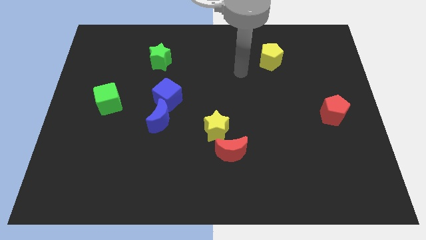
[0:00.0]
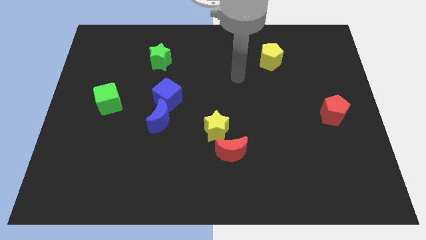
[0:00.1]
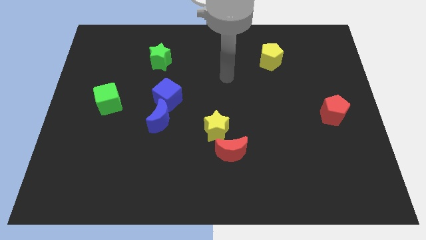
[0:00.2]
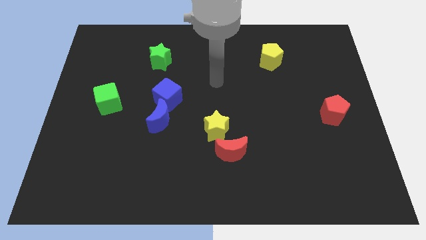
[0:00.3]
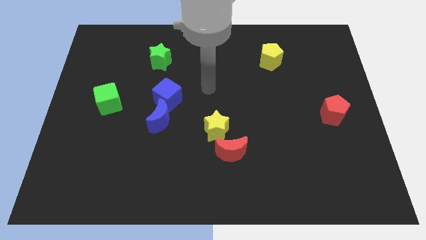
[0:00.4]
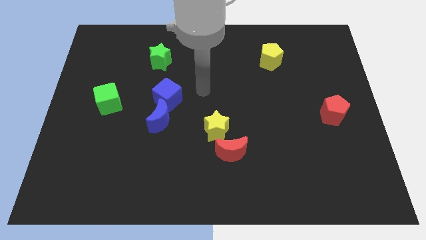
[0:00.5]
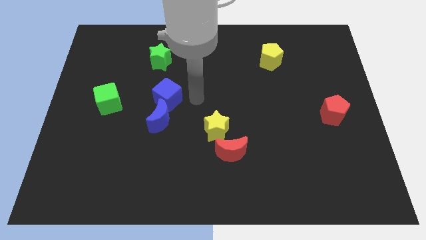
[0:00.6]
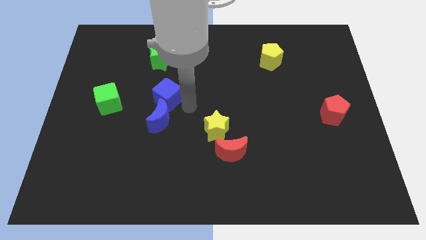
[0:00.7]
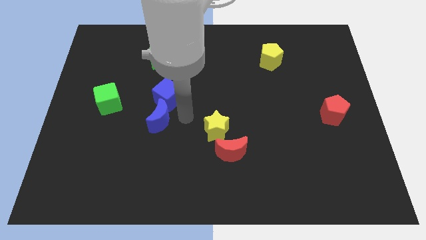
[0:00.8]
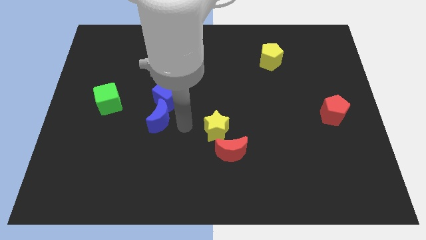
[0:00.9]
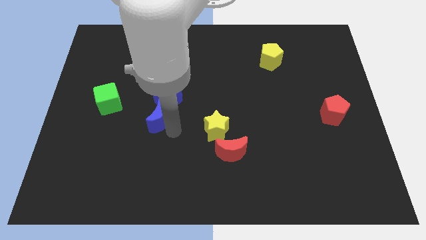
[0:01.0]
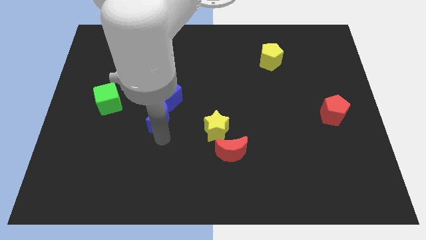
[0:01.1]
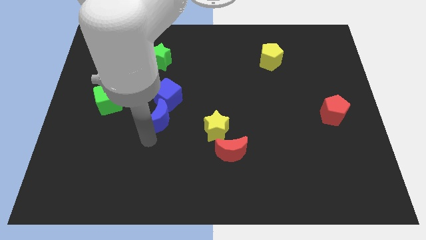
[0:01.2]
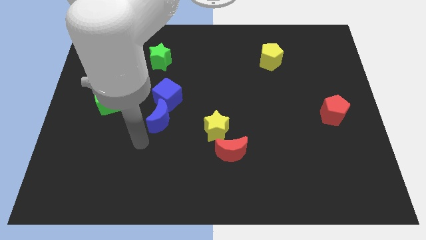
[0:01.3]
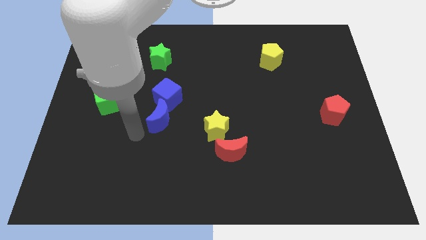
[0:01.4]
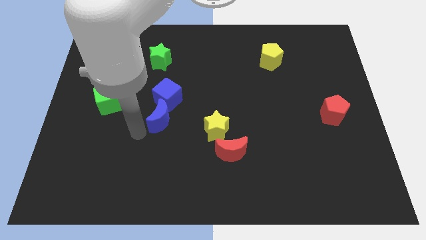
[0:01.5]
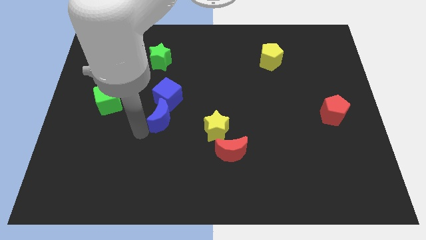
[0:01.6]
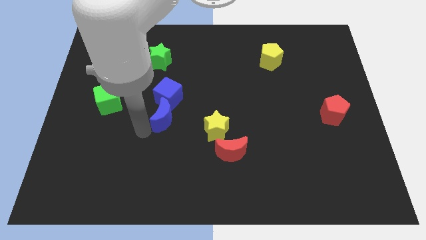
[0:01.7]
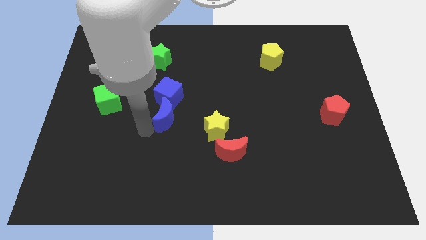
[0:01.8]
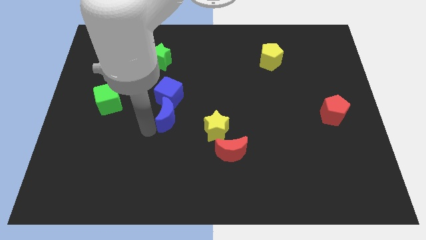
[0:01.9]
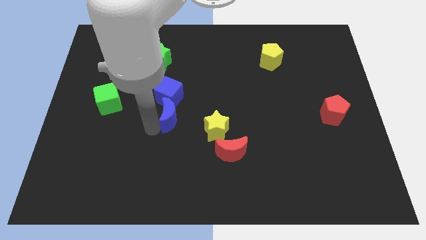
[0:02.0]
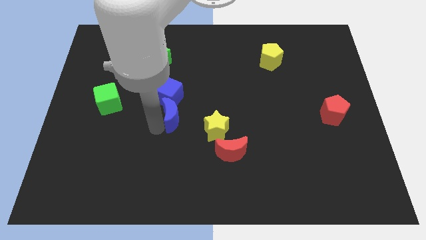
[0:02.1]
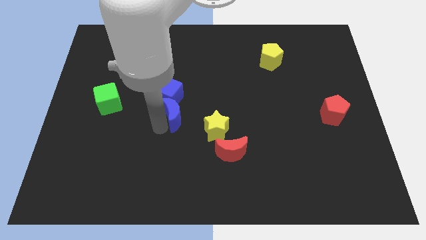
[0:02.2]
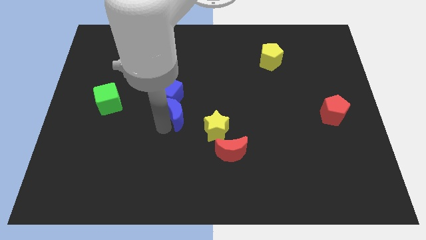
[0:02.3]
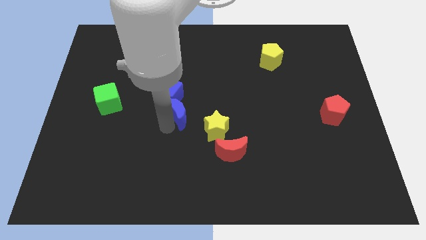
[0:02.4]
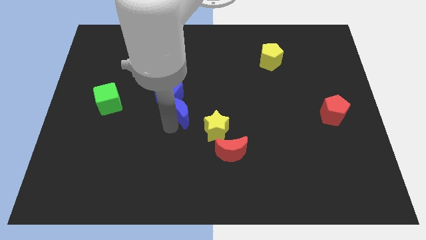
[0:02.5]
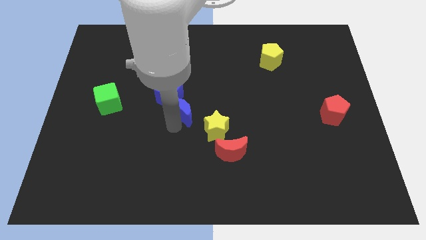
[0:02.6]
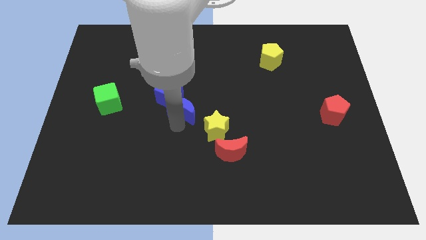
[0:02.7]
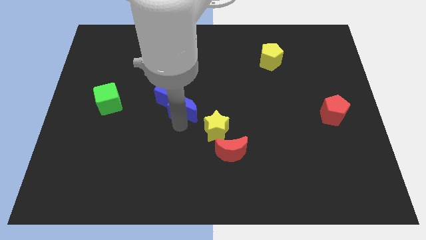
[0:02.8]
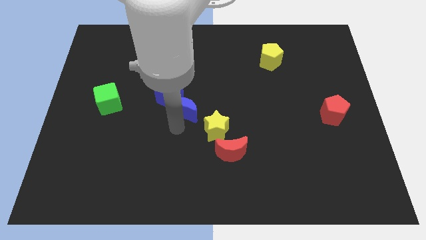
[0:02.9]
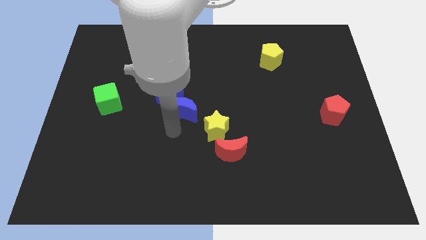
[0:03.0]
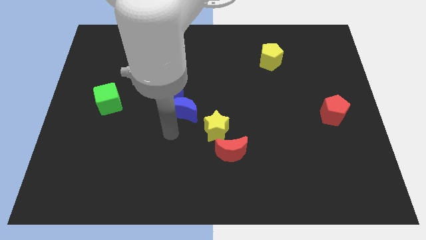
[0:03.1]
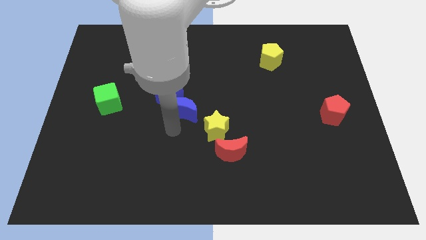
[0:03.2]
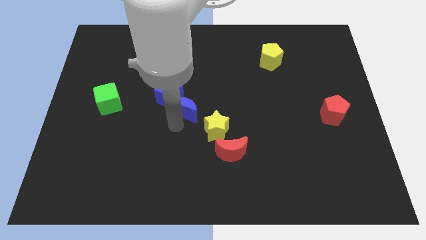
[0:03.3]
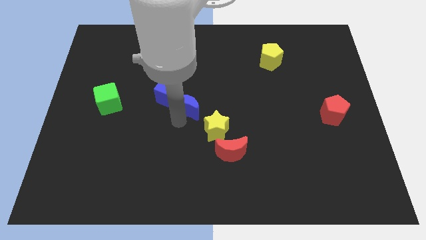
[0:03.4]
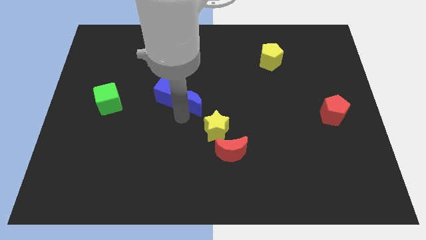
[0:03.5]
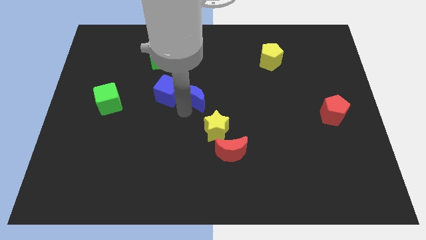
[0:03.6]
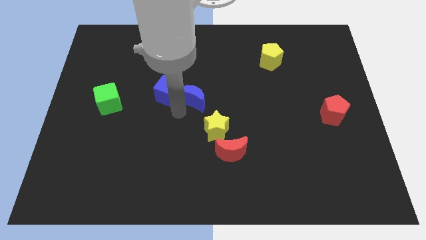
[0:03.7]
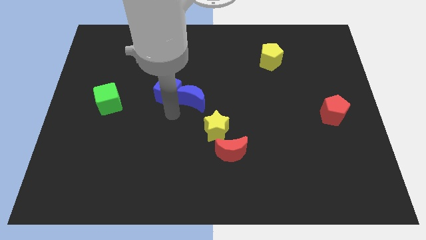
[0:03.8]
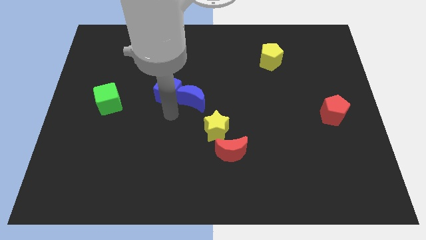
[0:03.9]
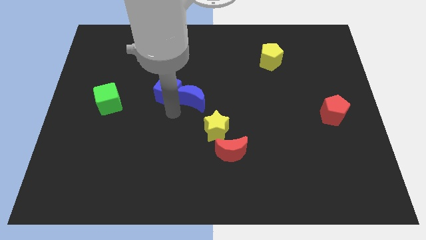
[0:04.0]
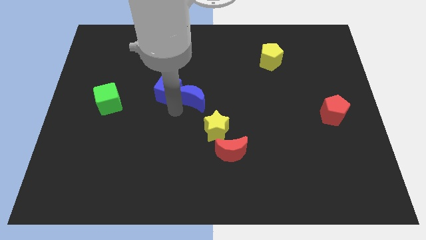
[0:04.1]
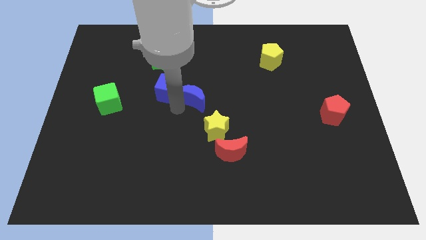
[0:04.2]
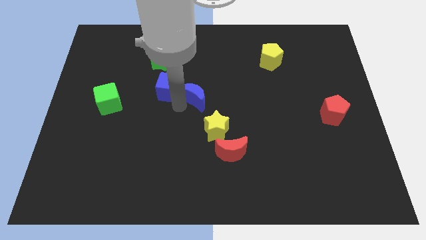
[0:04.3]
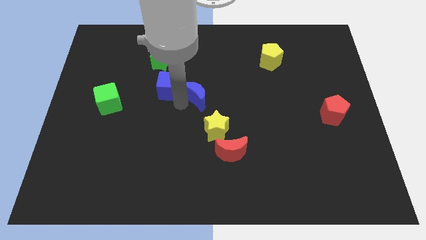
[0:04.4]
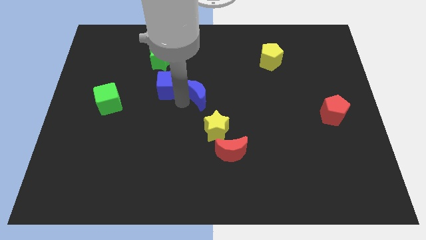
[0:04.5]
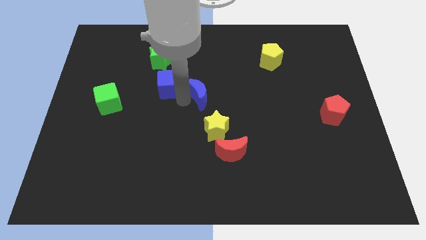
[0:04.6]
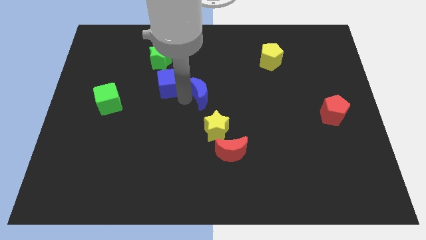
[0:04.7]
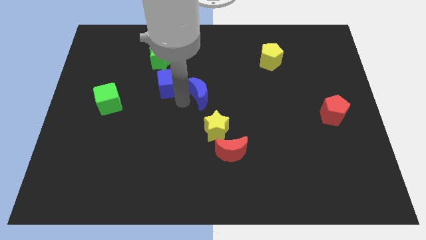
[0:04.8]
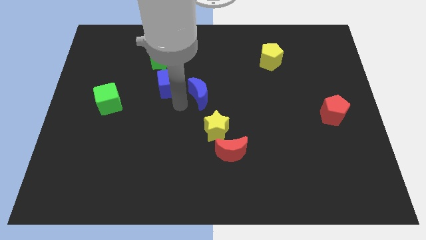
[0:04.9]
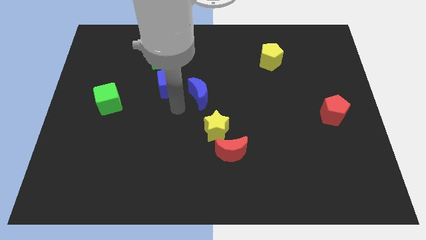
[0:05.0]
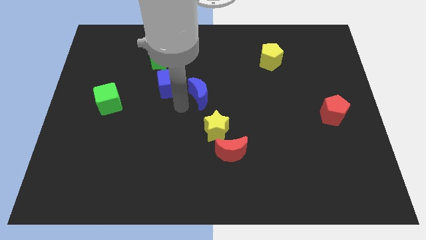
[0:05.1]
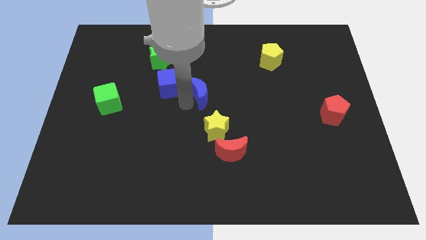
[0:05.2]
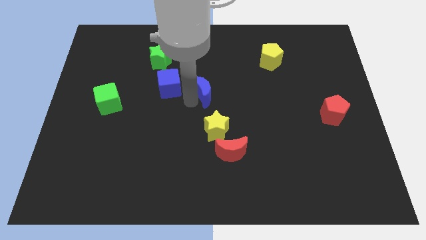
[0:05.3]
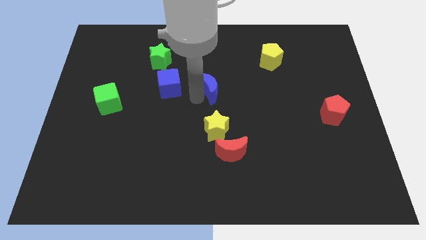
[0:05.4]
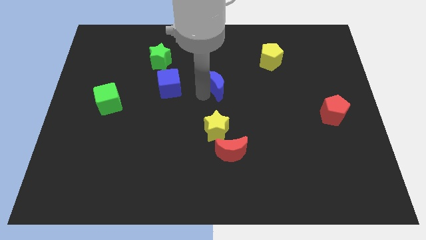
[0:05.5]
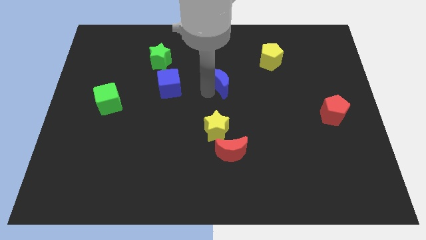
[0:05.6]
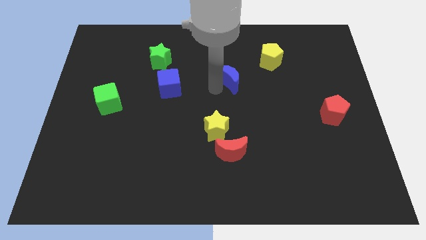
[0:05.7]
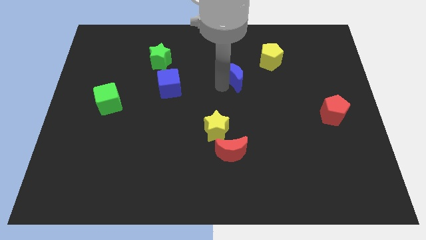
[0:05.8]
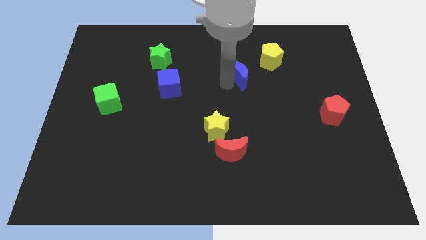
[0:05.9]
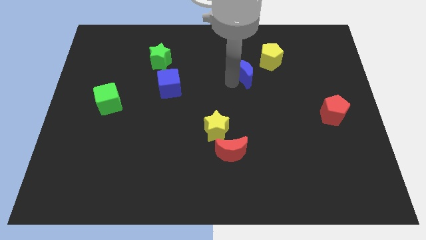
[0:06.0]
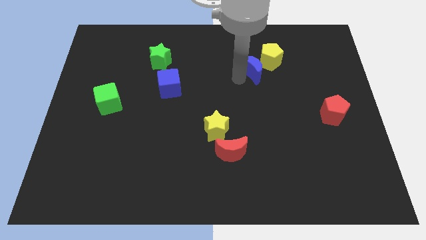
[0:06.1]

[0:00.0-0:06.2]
put the blue moon towards the yellow pentagon

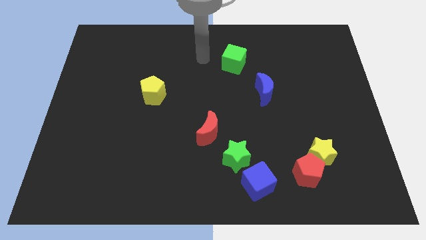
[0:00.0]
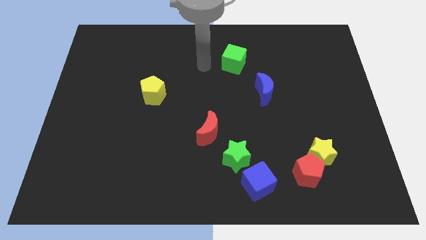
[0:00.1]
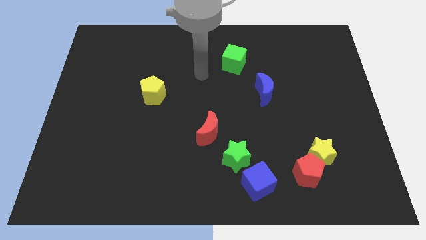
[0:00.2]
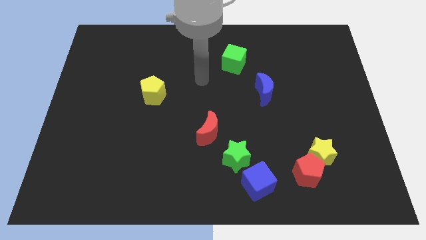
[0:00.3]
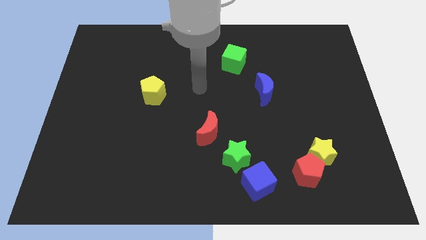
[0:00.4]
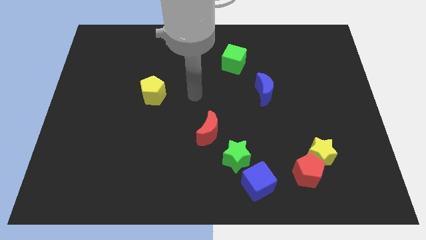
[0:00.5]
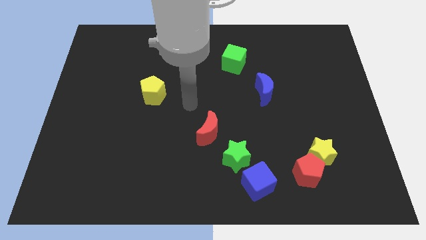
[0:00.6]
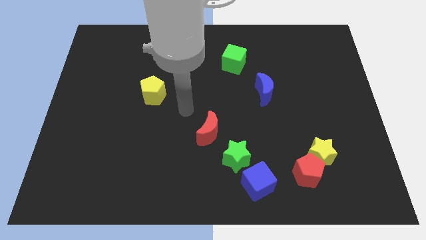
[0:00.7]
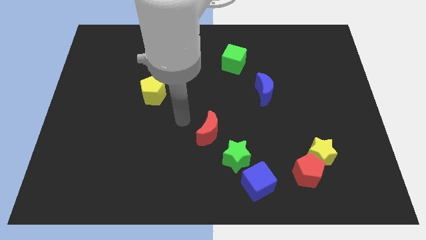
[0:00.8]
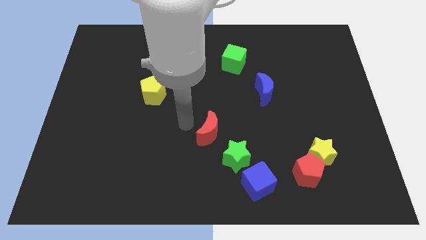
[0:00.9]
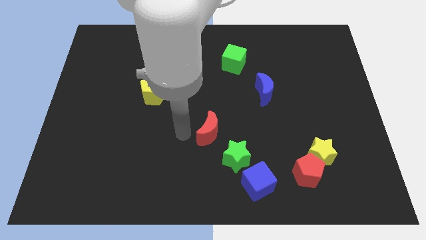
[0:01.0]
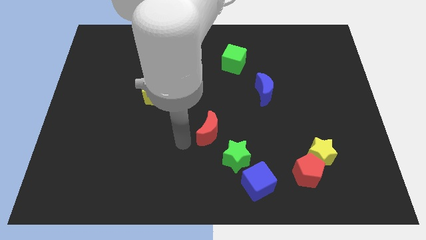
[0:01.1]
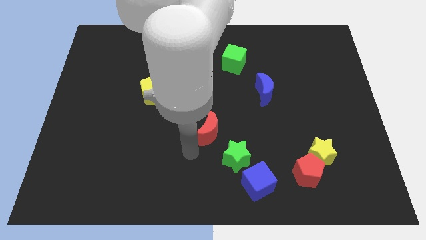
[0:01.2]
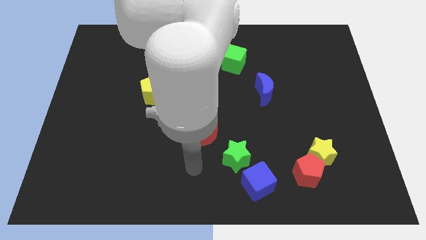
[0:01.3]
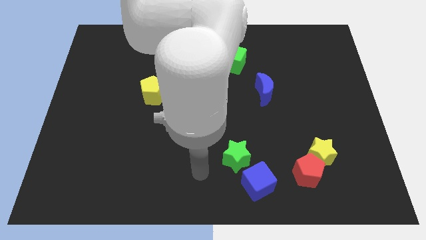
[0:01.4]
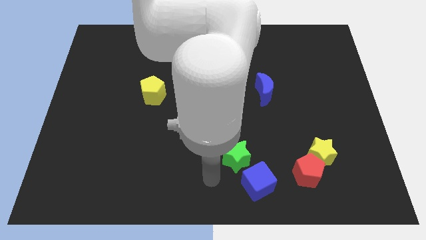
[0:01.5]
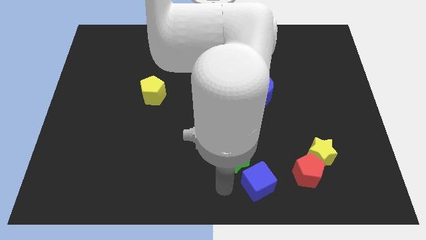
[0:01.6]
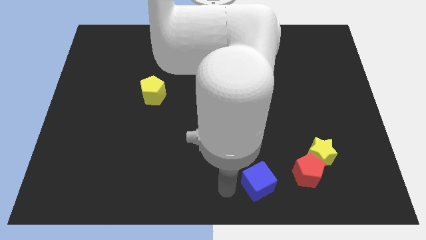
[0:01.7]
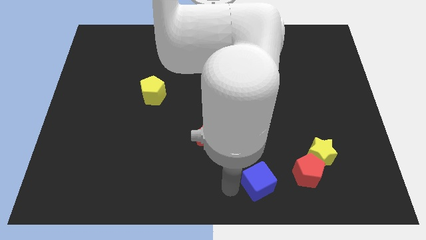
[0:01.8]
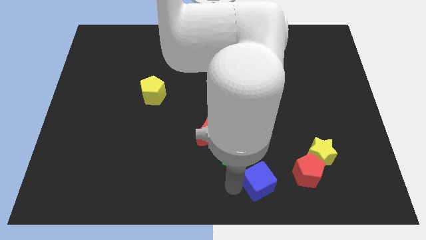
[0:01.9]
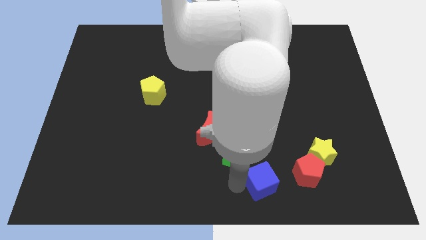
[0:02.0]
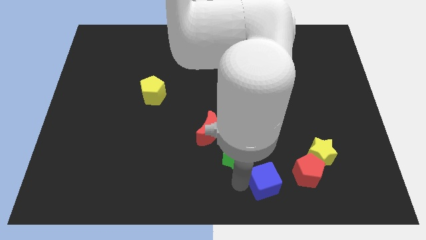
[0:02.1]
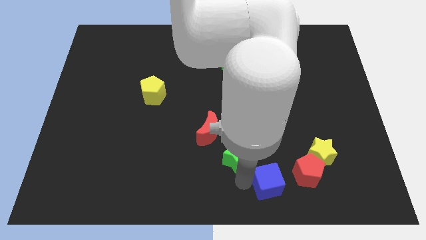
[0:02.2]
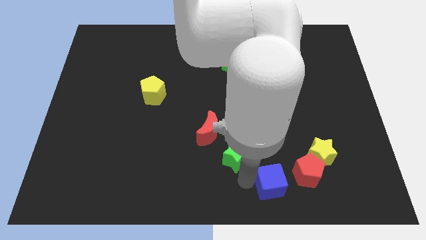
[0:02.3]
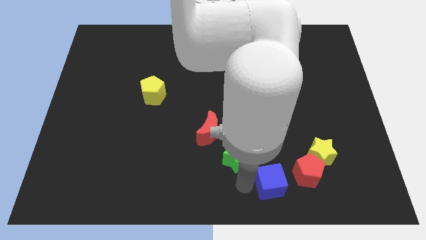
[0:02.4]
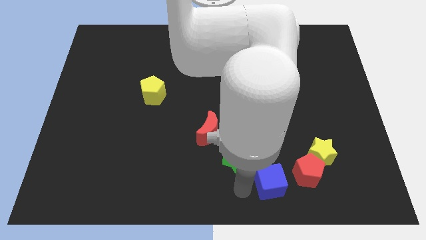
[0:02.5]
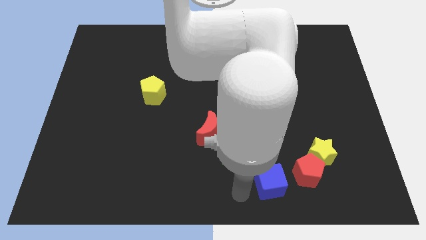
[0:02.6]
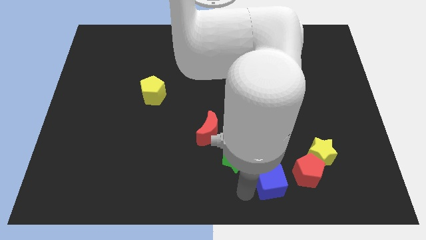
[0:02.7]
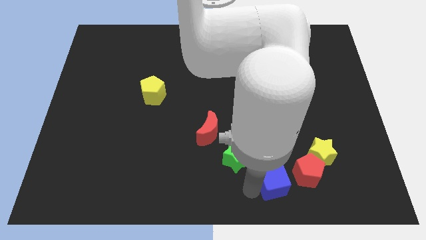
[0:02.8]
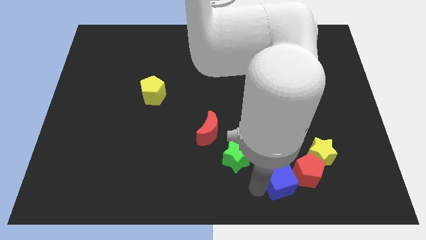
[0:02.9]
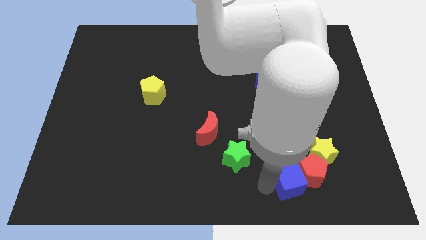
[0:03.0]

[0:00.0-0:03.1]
put the blue cube towards the red pentagon
